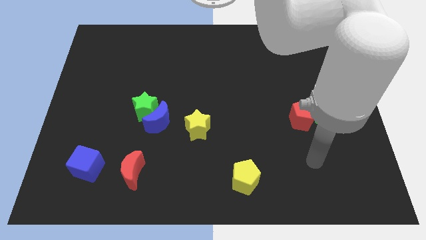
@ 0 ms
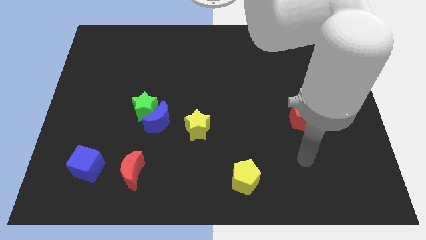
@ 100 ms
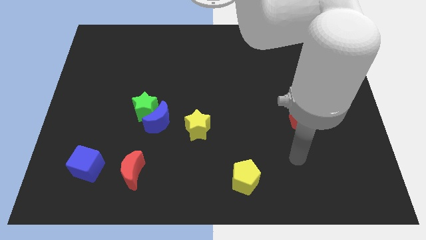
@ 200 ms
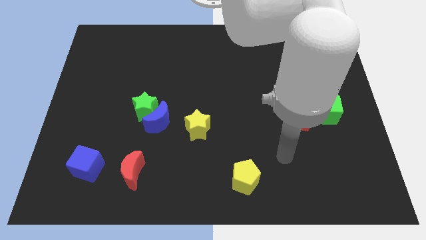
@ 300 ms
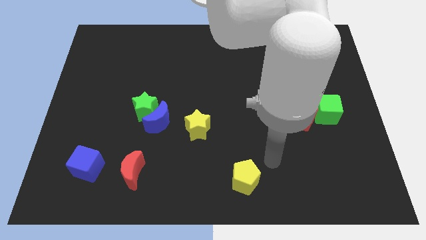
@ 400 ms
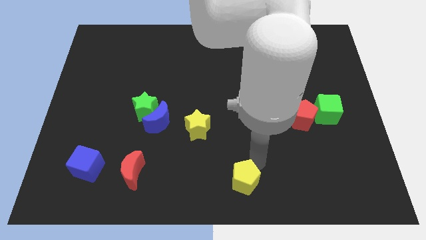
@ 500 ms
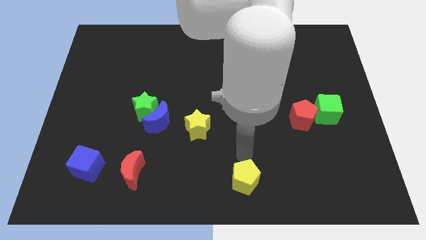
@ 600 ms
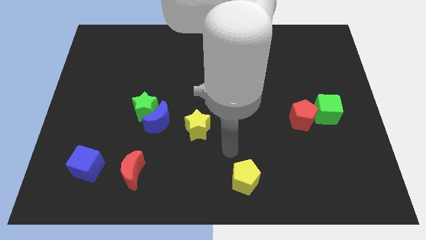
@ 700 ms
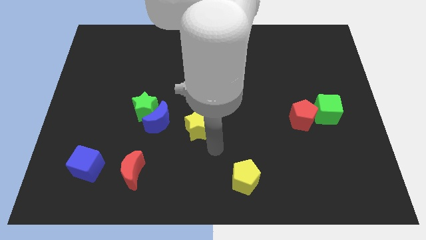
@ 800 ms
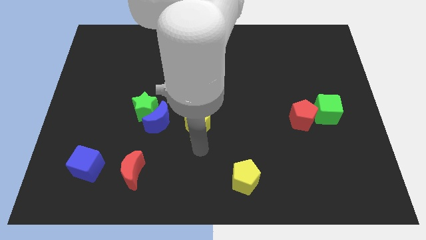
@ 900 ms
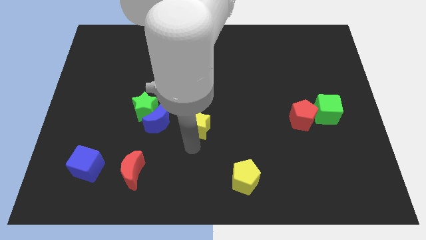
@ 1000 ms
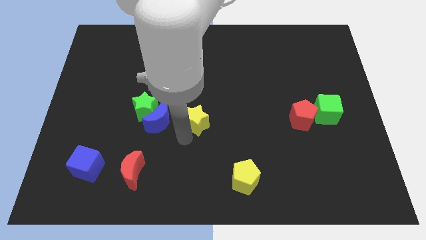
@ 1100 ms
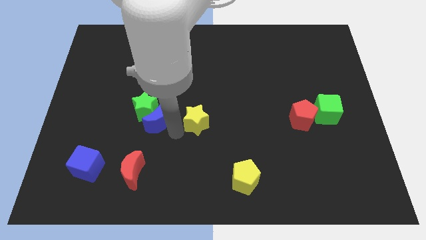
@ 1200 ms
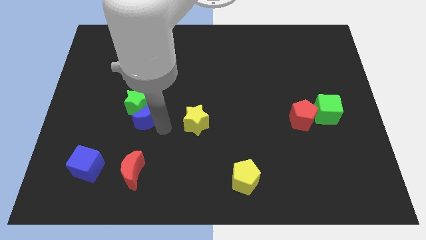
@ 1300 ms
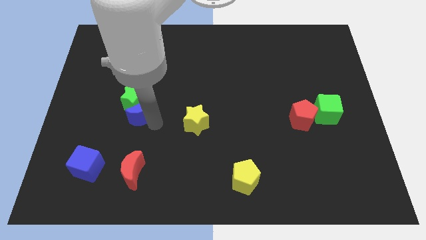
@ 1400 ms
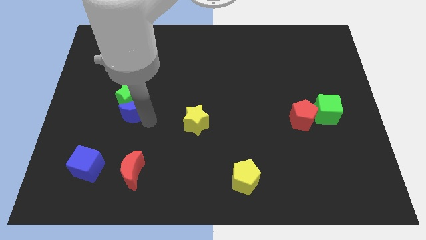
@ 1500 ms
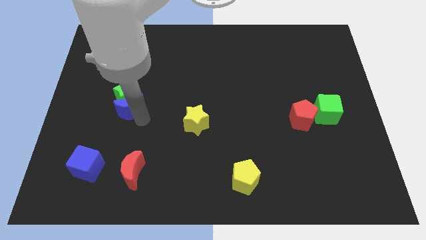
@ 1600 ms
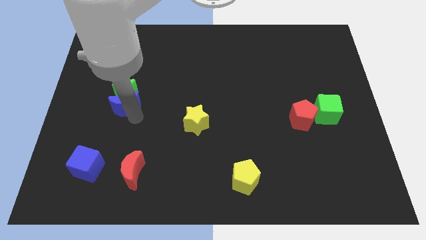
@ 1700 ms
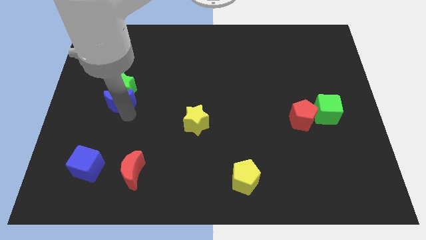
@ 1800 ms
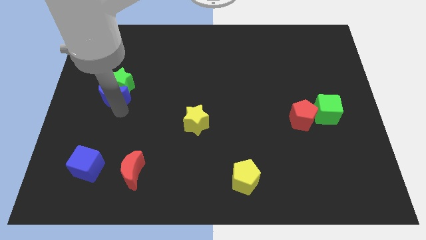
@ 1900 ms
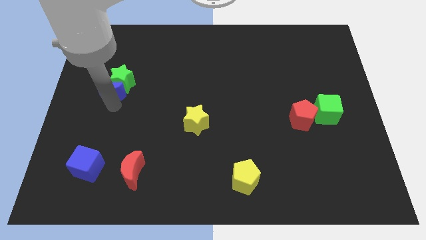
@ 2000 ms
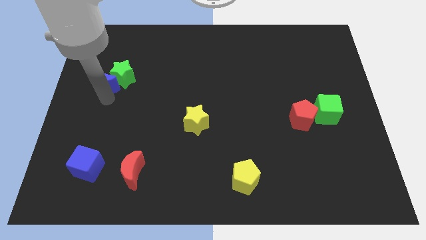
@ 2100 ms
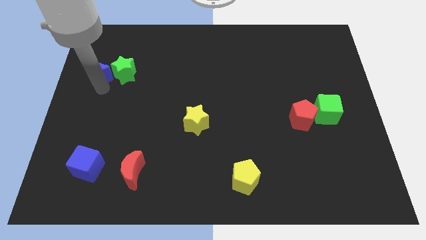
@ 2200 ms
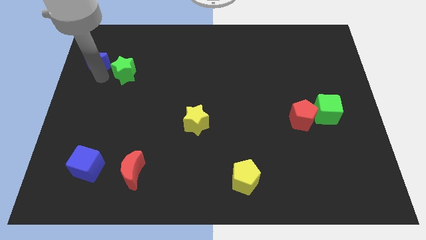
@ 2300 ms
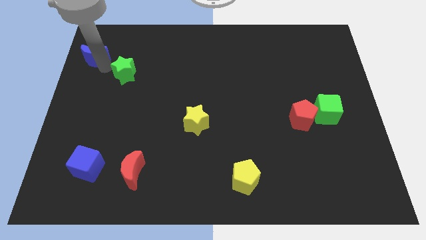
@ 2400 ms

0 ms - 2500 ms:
move the green star away from the blue moon

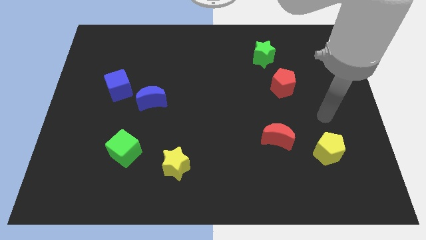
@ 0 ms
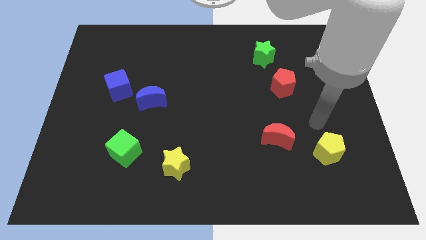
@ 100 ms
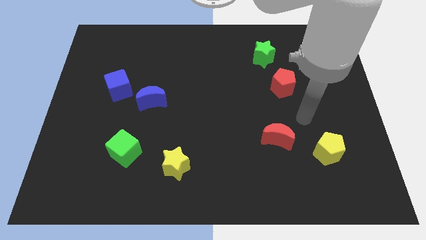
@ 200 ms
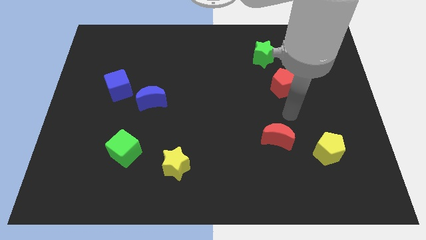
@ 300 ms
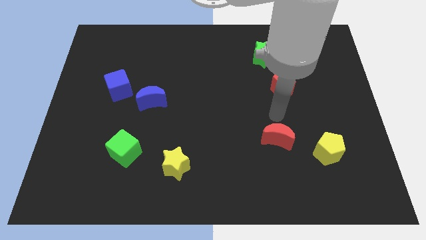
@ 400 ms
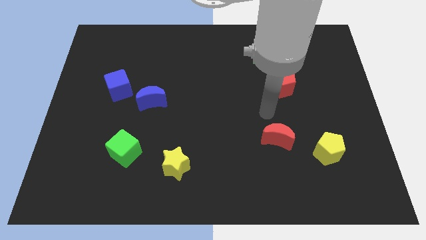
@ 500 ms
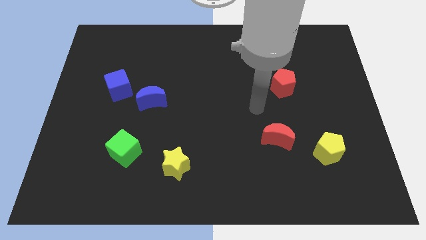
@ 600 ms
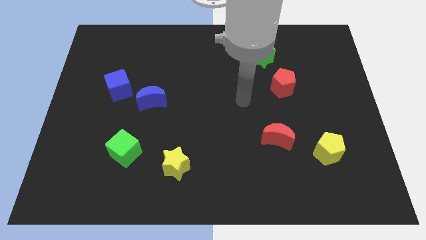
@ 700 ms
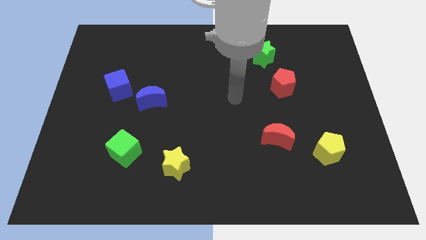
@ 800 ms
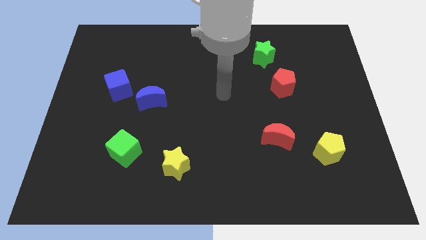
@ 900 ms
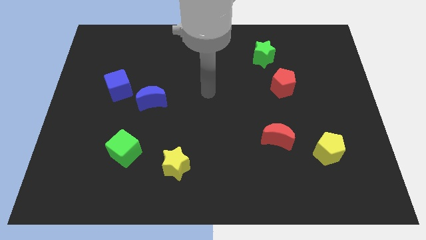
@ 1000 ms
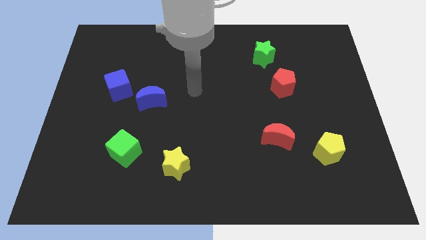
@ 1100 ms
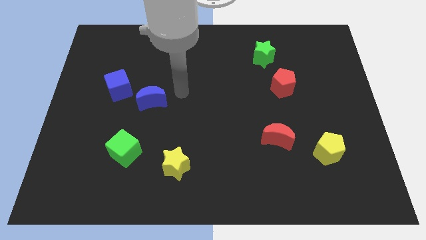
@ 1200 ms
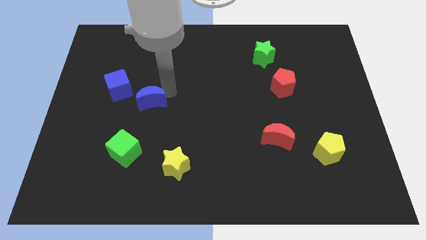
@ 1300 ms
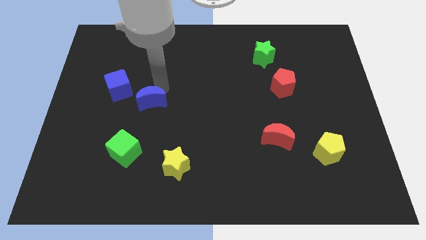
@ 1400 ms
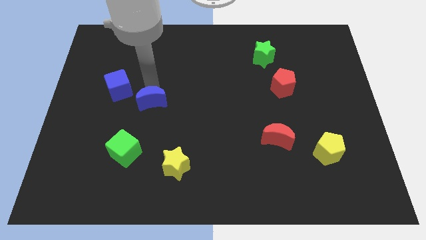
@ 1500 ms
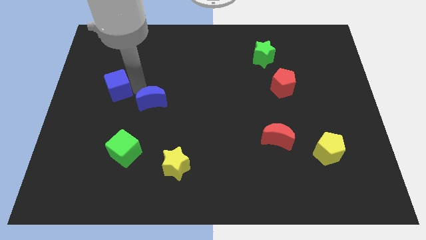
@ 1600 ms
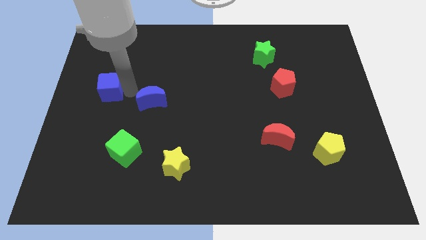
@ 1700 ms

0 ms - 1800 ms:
pull the blue moon apart from the blue cube

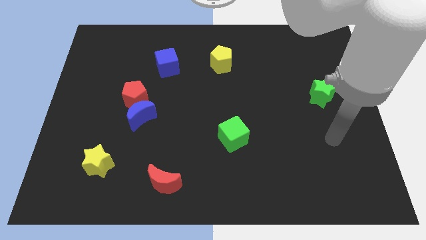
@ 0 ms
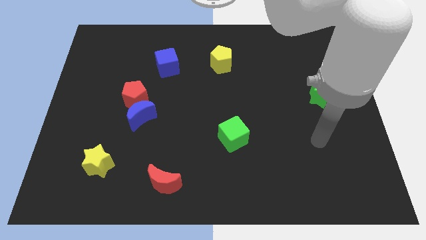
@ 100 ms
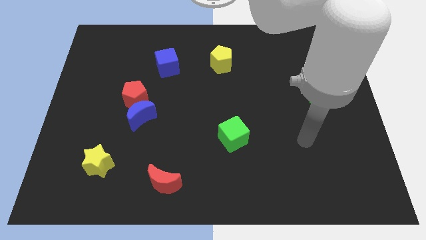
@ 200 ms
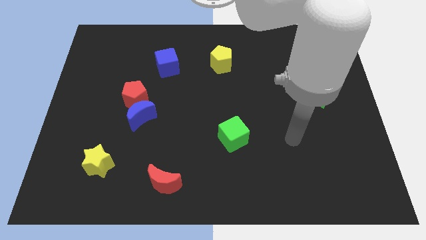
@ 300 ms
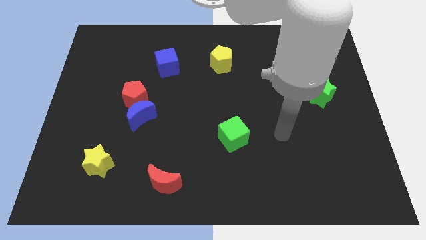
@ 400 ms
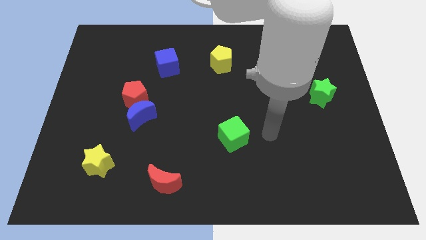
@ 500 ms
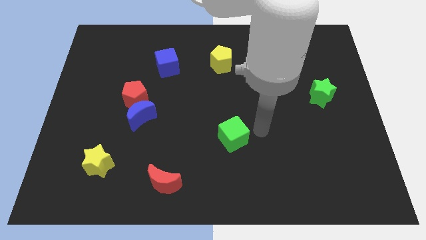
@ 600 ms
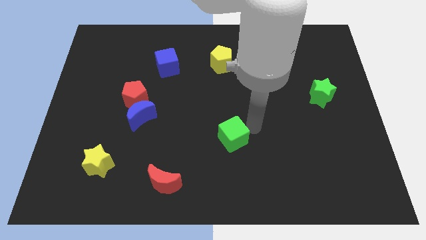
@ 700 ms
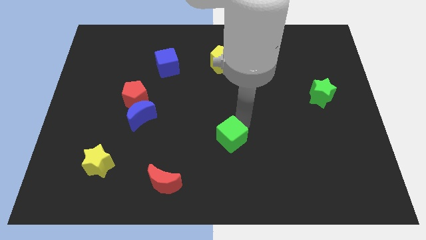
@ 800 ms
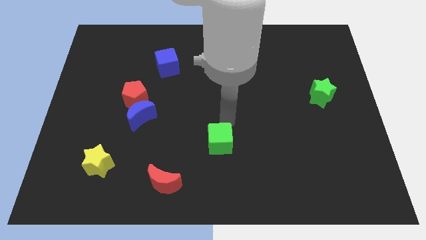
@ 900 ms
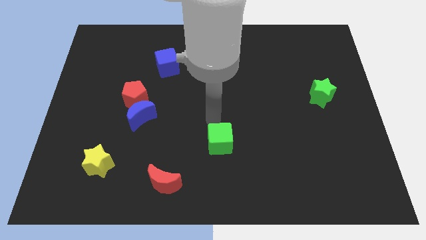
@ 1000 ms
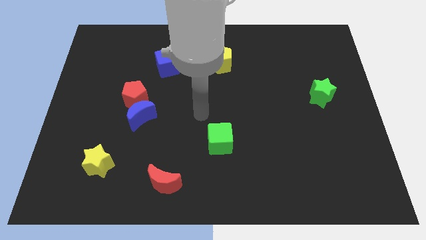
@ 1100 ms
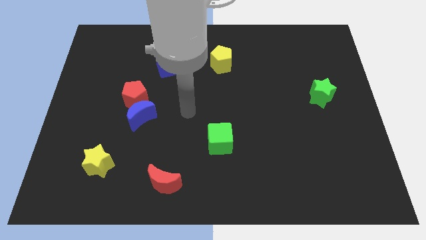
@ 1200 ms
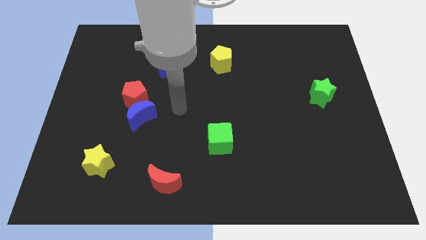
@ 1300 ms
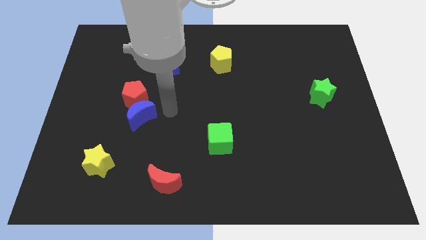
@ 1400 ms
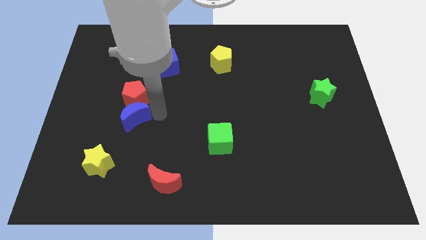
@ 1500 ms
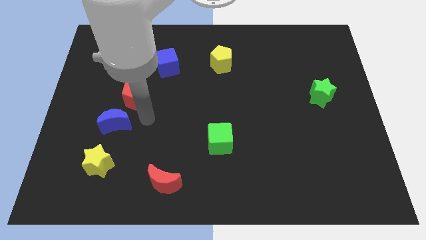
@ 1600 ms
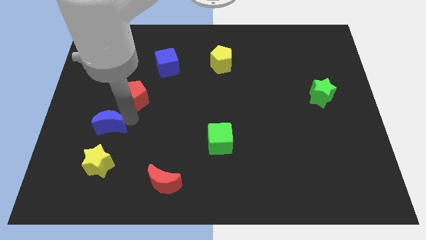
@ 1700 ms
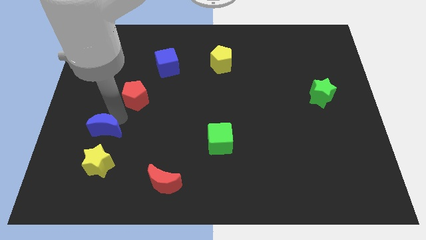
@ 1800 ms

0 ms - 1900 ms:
move the red pentagon away from the blue moon

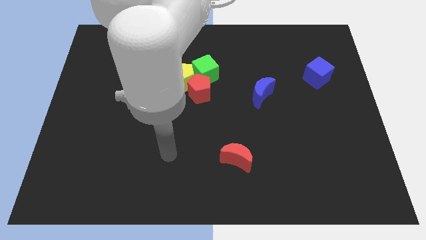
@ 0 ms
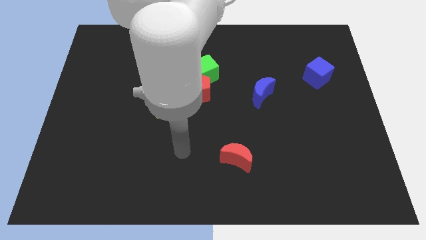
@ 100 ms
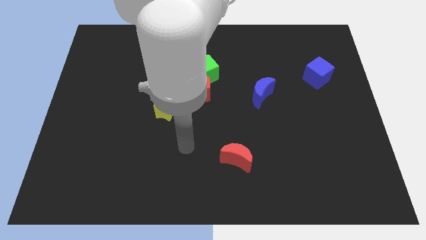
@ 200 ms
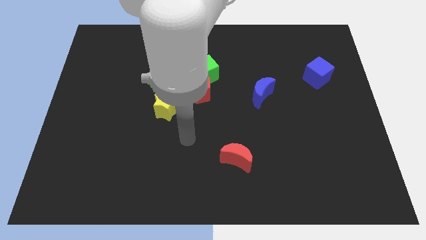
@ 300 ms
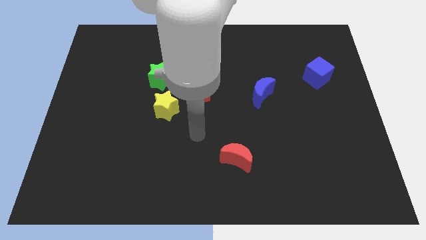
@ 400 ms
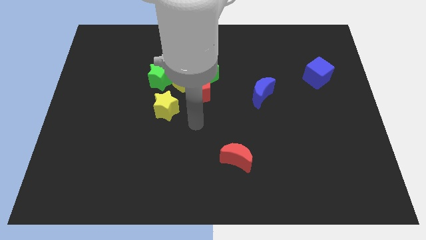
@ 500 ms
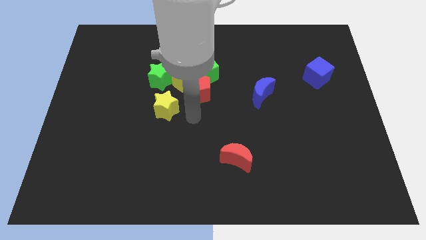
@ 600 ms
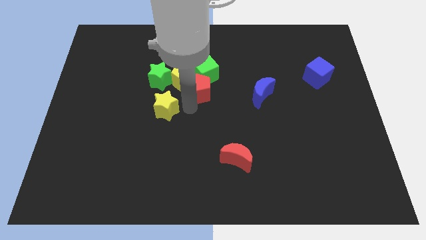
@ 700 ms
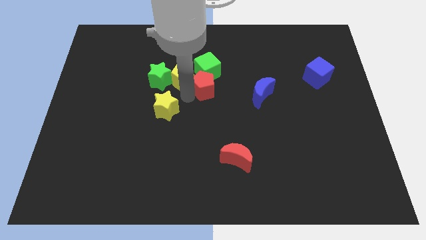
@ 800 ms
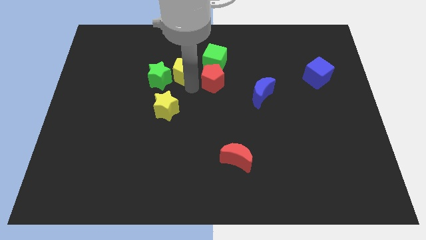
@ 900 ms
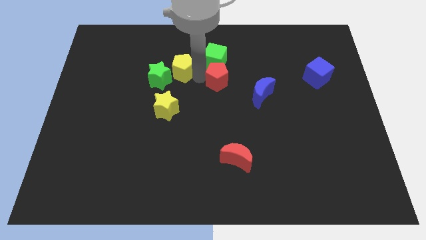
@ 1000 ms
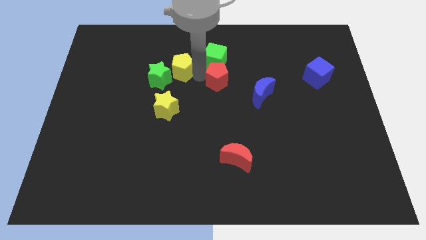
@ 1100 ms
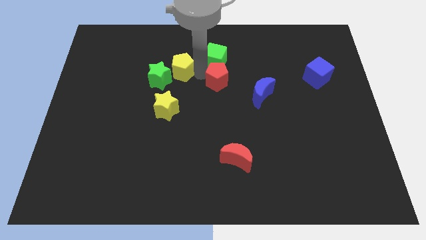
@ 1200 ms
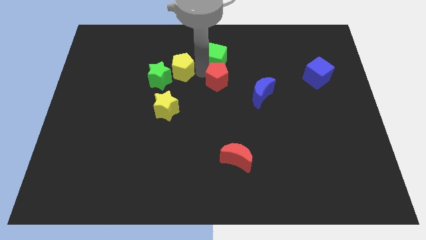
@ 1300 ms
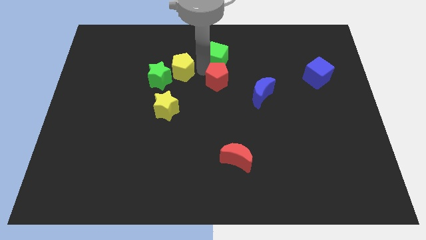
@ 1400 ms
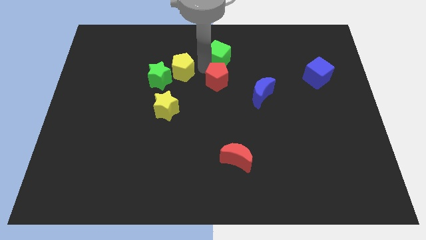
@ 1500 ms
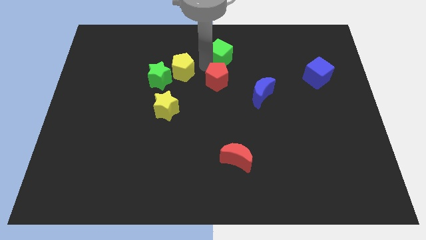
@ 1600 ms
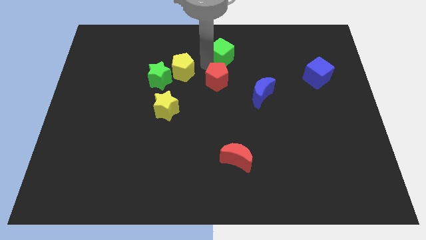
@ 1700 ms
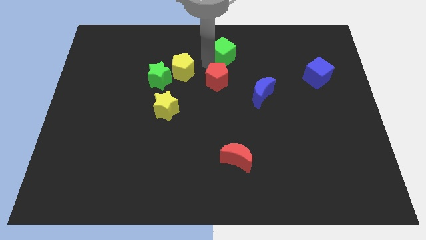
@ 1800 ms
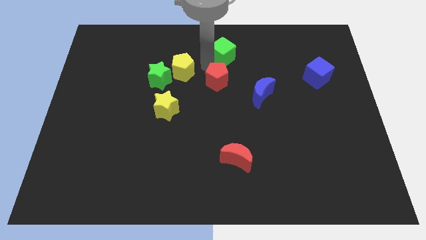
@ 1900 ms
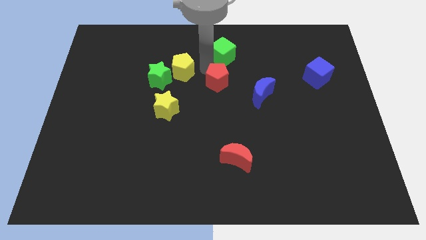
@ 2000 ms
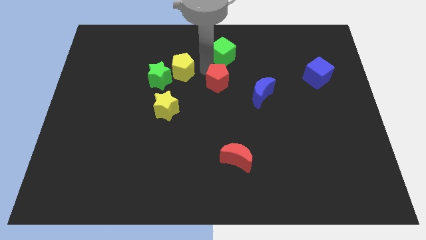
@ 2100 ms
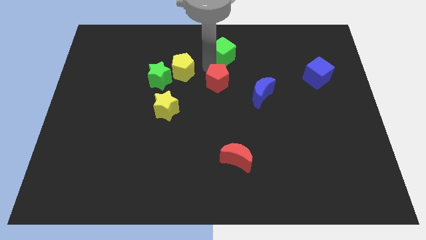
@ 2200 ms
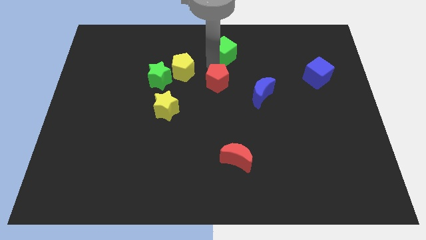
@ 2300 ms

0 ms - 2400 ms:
move the green cube away from the yellow pentagon and red pentagon

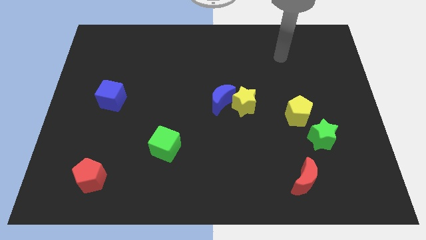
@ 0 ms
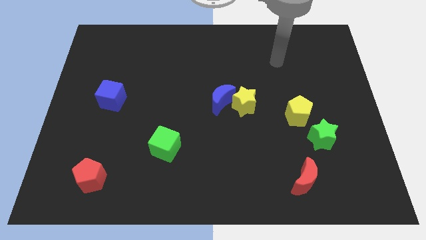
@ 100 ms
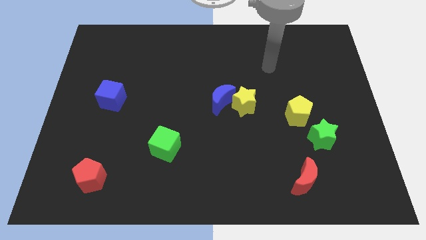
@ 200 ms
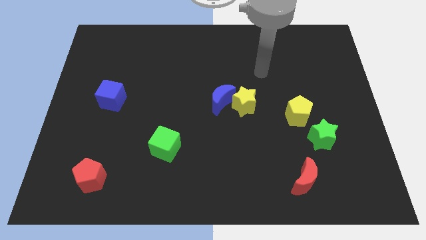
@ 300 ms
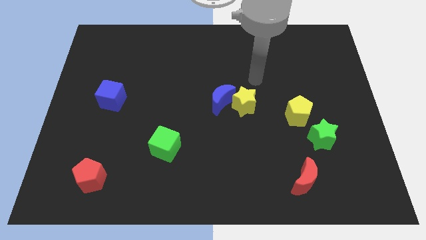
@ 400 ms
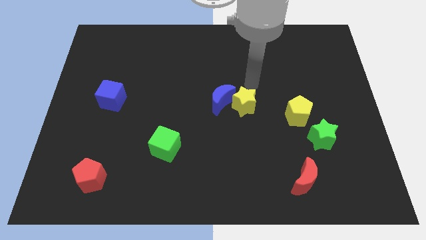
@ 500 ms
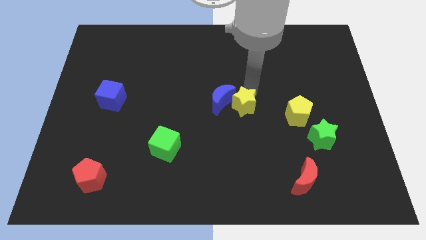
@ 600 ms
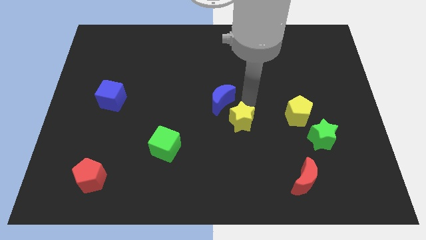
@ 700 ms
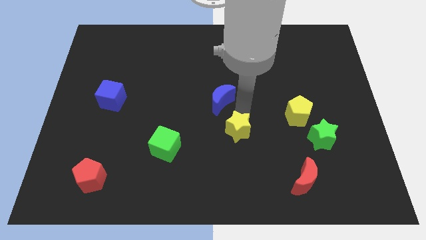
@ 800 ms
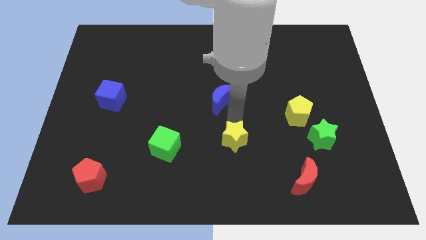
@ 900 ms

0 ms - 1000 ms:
move the blue moon away from the yellow star
